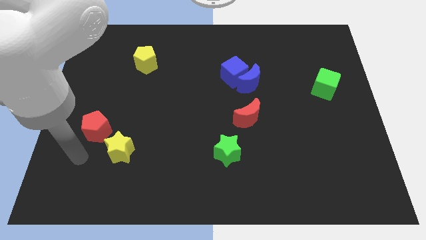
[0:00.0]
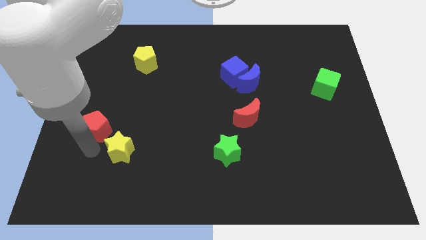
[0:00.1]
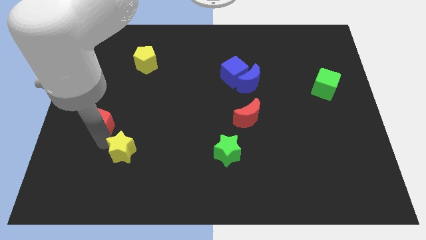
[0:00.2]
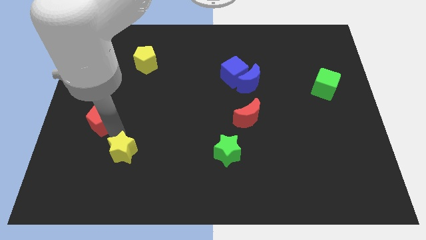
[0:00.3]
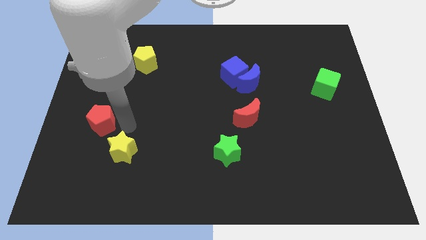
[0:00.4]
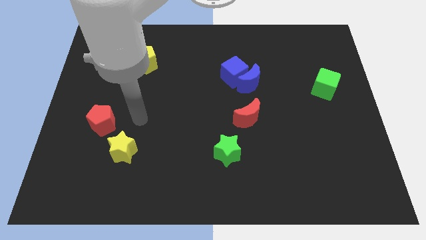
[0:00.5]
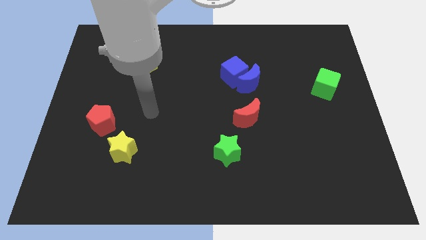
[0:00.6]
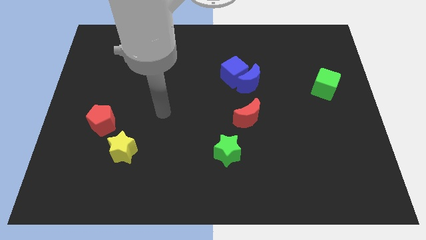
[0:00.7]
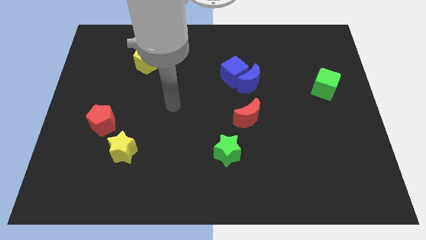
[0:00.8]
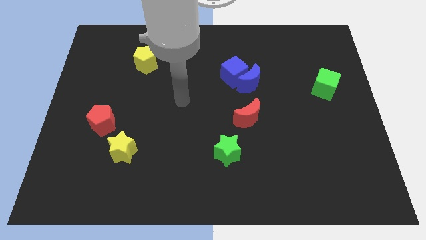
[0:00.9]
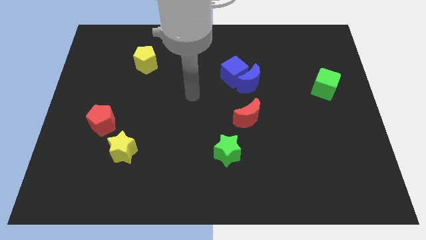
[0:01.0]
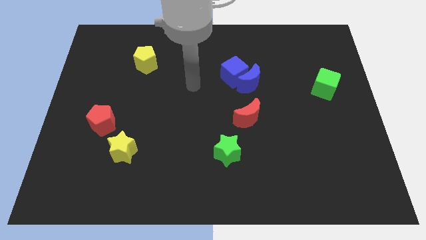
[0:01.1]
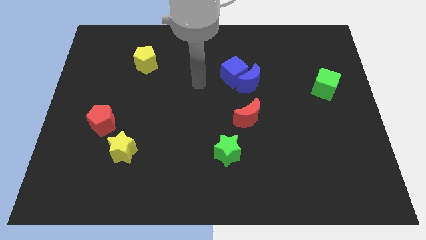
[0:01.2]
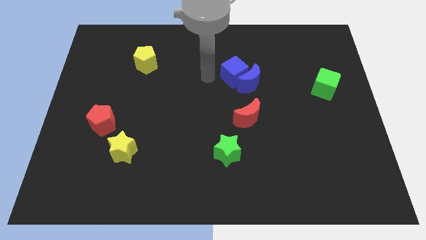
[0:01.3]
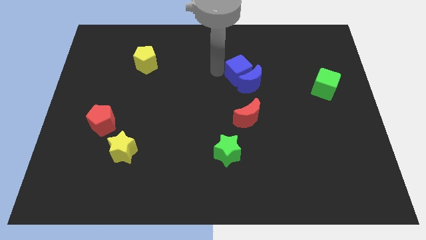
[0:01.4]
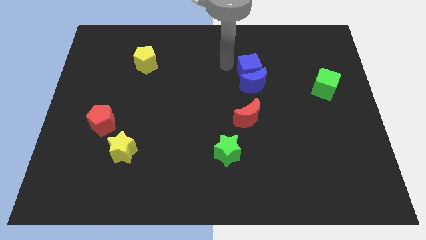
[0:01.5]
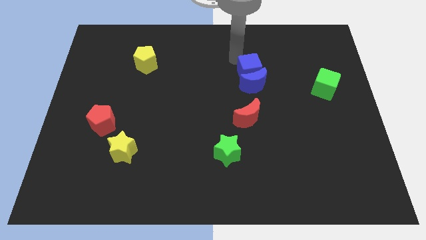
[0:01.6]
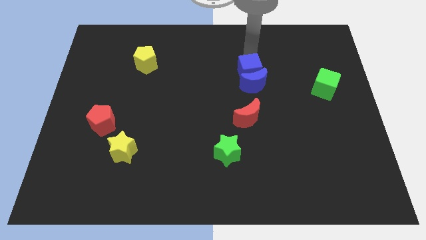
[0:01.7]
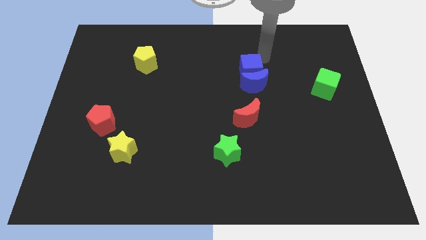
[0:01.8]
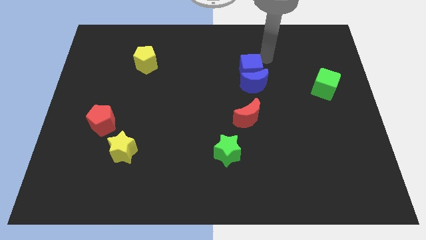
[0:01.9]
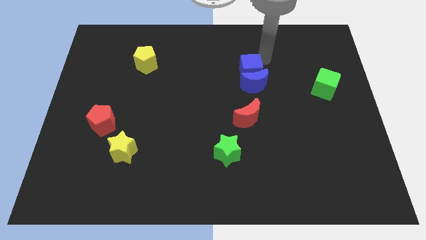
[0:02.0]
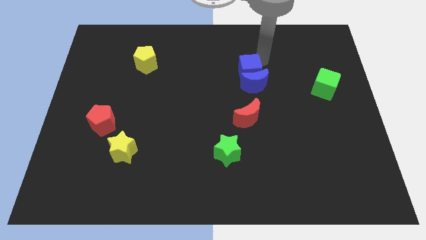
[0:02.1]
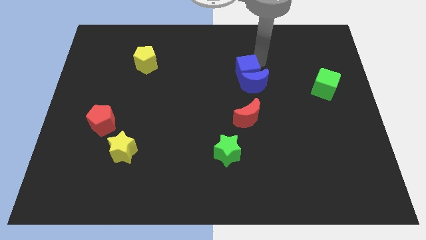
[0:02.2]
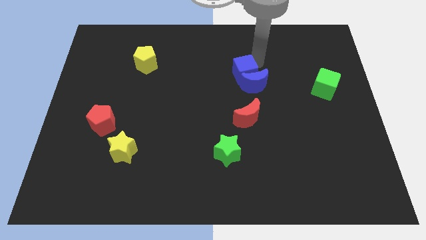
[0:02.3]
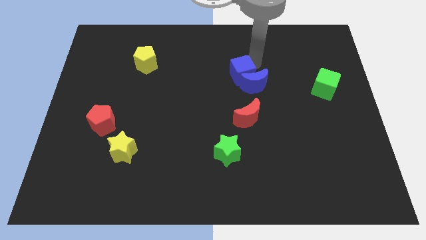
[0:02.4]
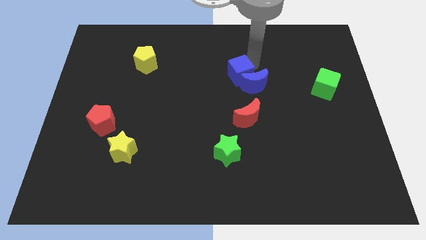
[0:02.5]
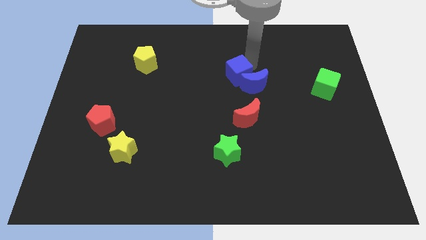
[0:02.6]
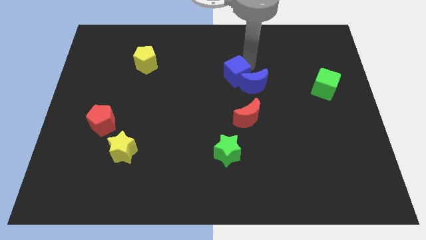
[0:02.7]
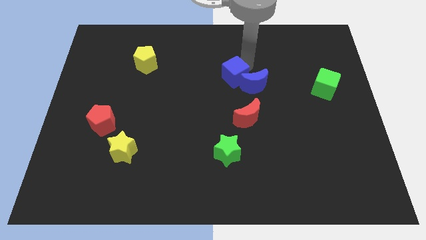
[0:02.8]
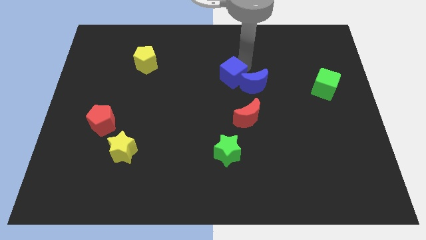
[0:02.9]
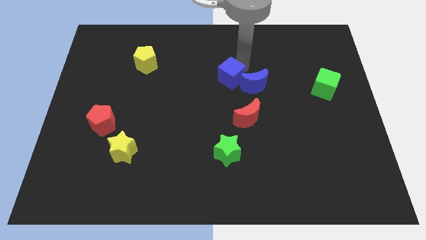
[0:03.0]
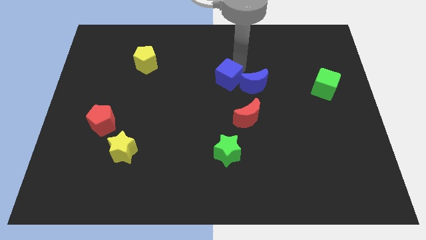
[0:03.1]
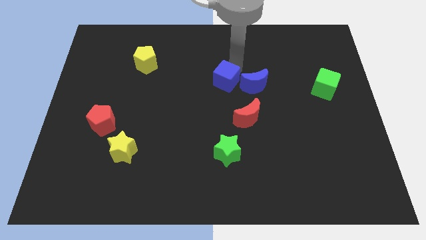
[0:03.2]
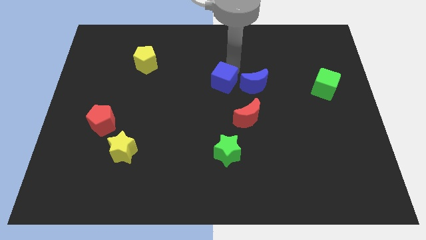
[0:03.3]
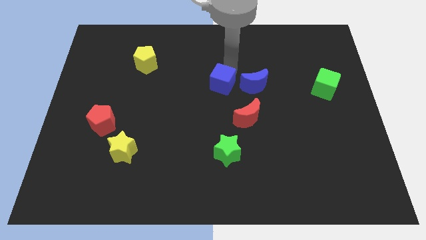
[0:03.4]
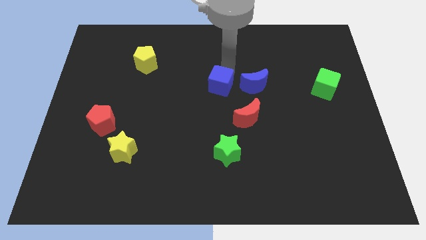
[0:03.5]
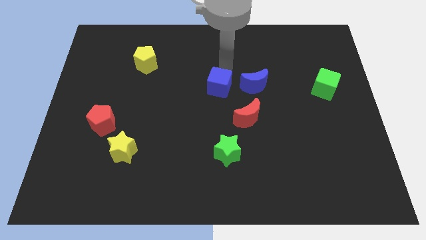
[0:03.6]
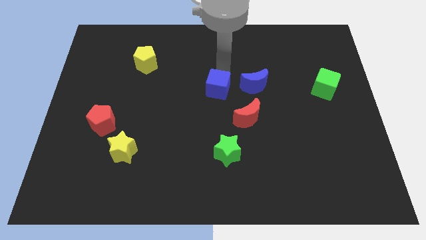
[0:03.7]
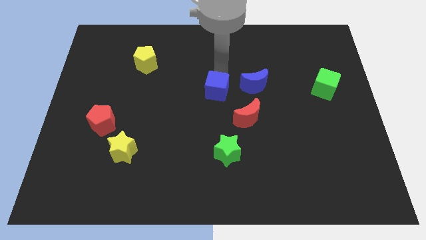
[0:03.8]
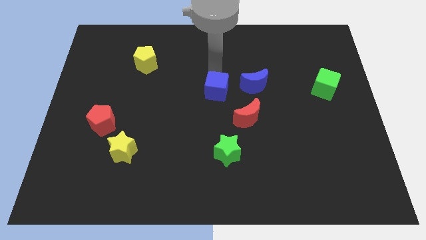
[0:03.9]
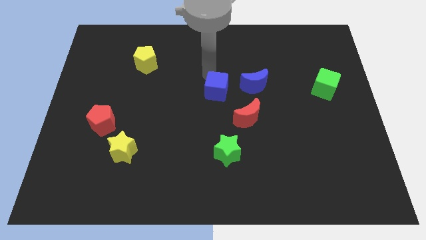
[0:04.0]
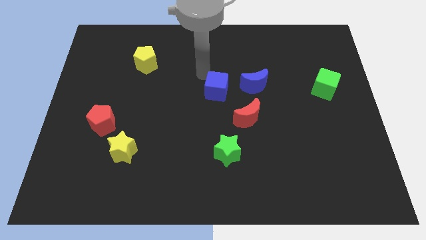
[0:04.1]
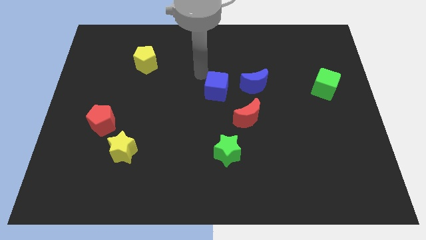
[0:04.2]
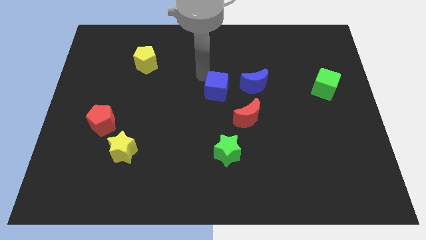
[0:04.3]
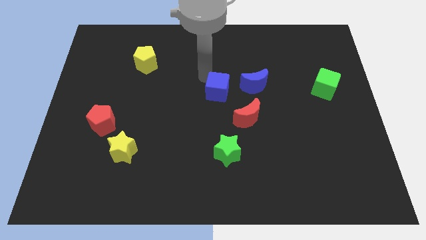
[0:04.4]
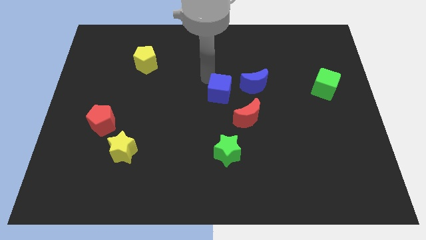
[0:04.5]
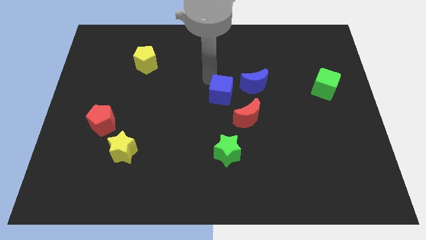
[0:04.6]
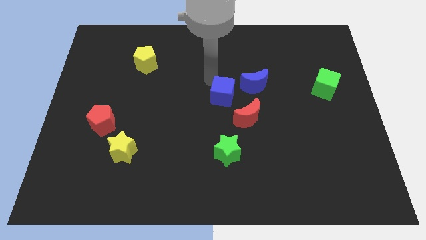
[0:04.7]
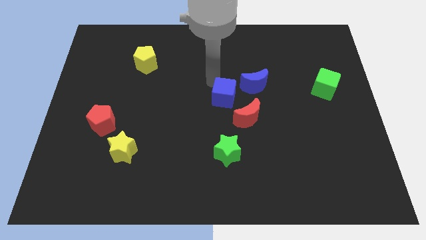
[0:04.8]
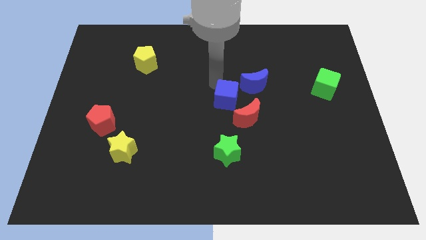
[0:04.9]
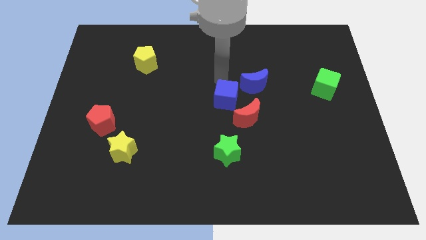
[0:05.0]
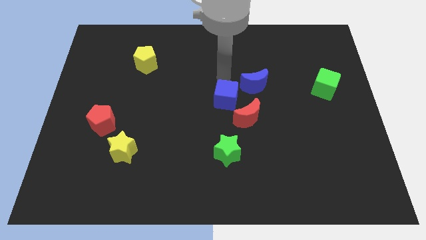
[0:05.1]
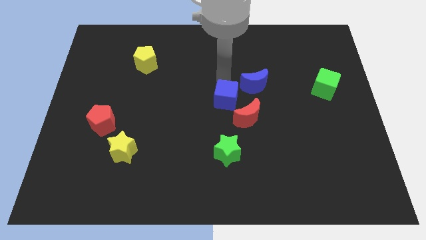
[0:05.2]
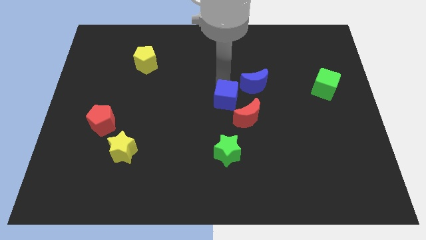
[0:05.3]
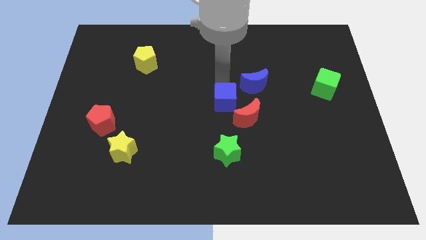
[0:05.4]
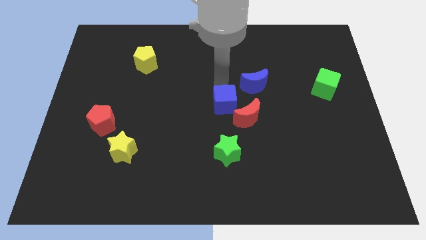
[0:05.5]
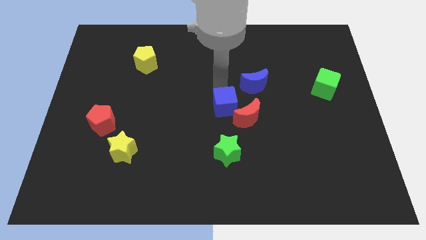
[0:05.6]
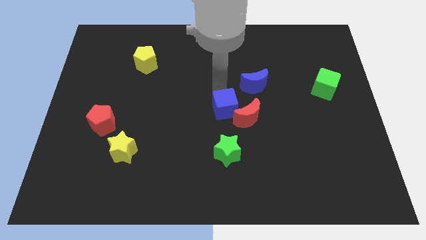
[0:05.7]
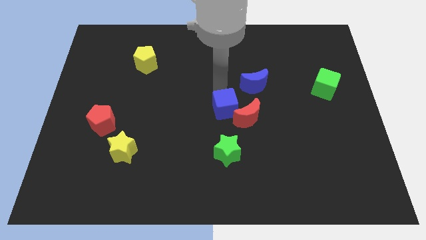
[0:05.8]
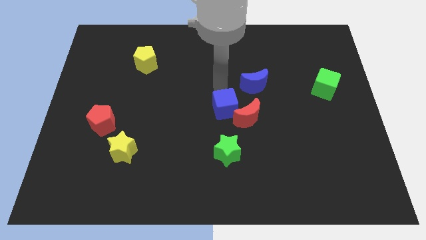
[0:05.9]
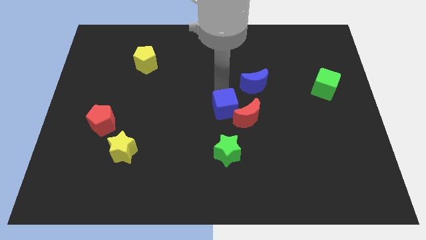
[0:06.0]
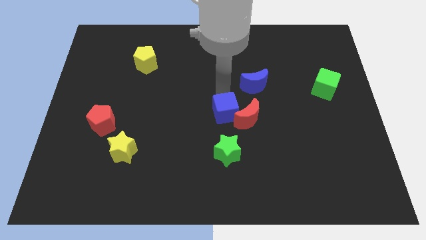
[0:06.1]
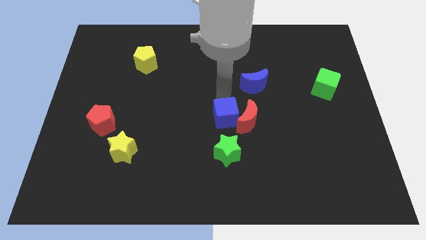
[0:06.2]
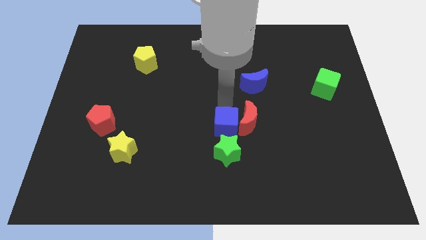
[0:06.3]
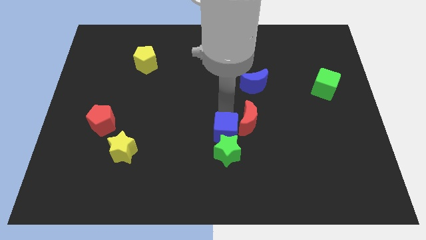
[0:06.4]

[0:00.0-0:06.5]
push the blue cube next to the green star
